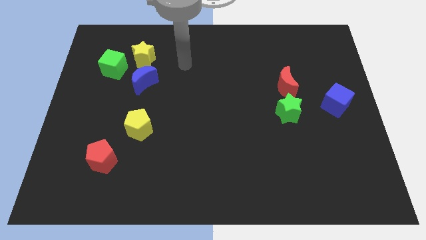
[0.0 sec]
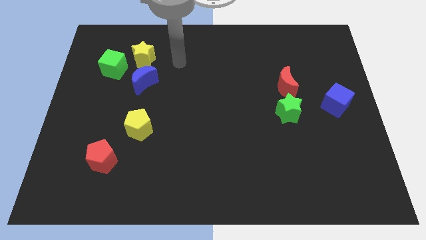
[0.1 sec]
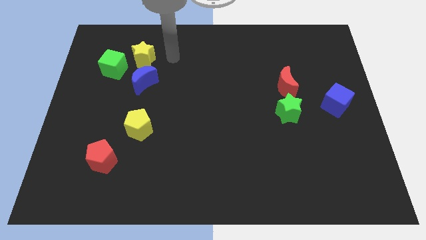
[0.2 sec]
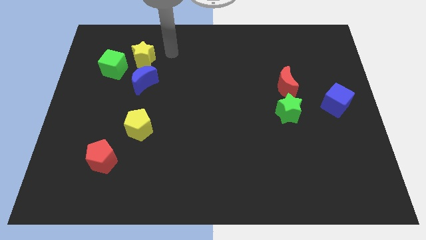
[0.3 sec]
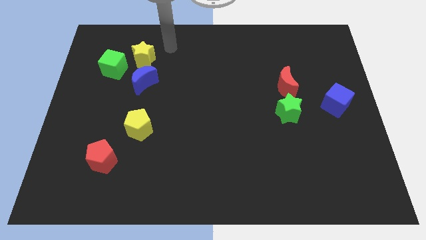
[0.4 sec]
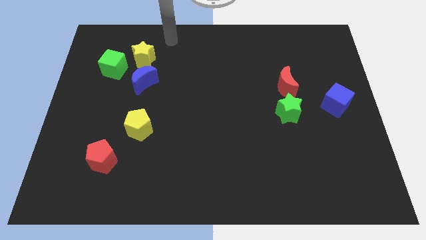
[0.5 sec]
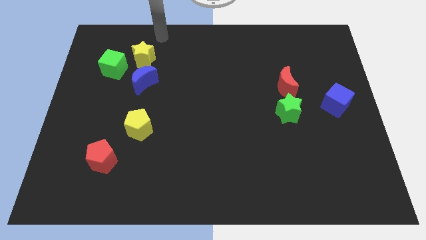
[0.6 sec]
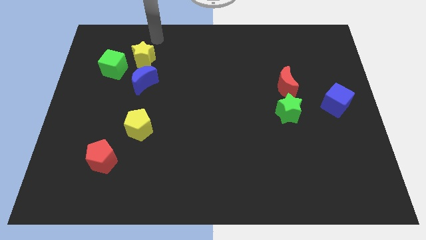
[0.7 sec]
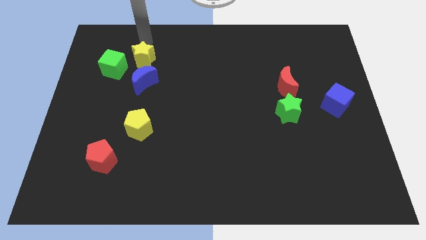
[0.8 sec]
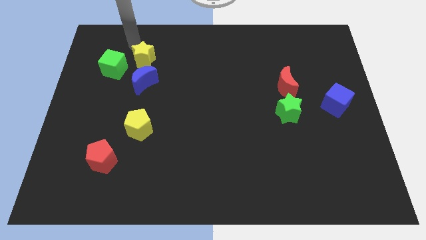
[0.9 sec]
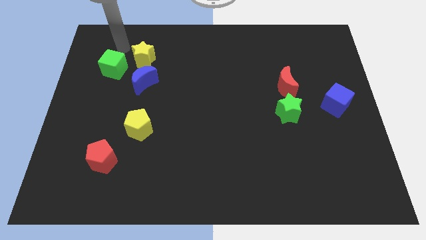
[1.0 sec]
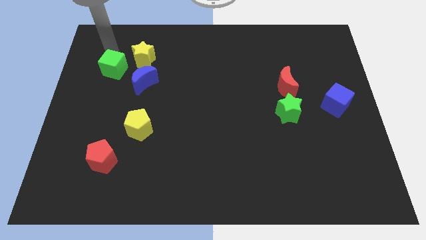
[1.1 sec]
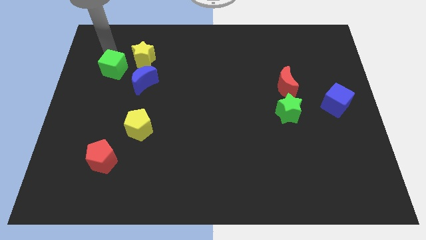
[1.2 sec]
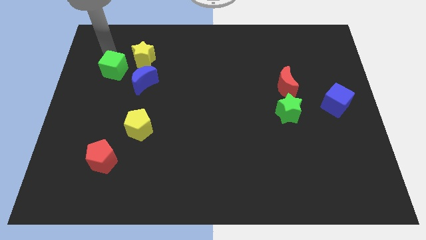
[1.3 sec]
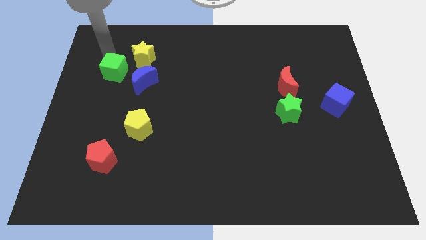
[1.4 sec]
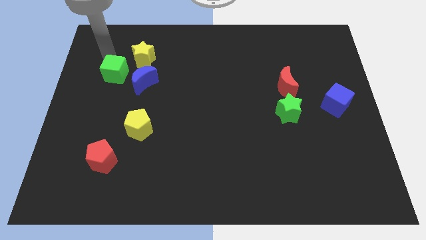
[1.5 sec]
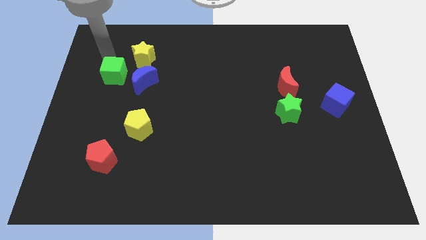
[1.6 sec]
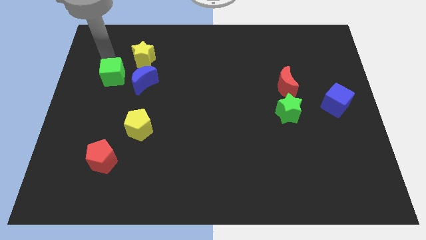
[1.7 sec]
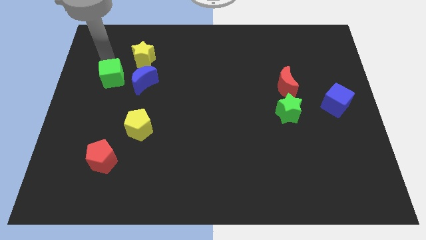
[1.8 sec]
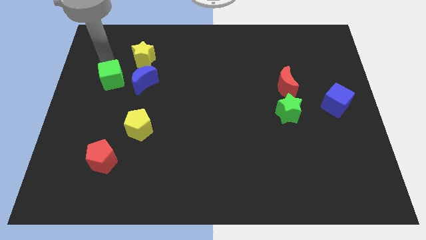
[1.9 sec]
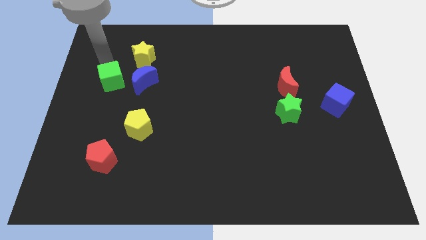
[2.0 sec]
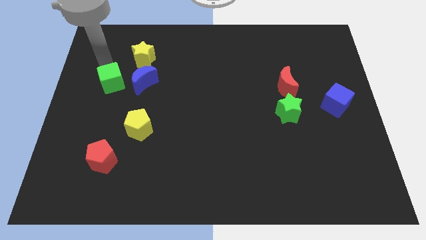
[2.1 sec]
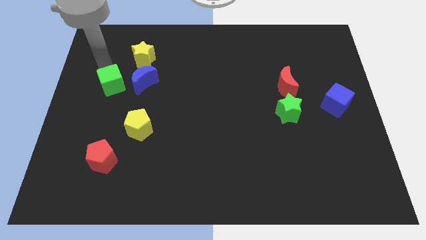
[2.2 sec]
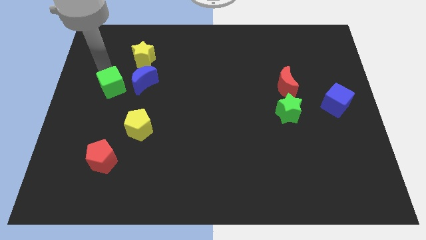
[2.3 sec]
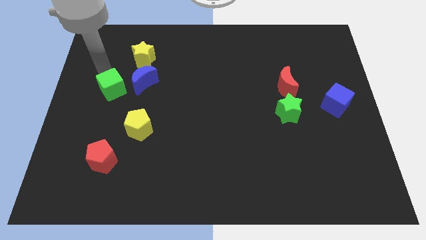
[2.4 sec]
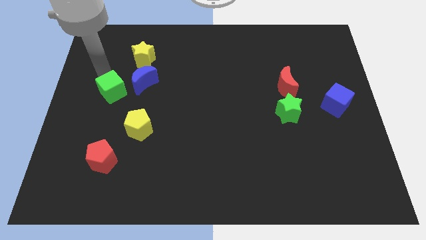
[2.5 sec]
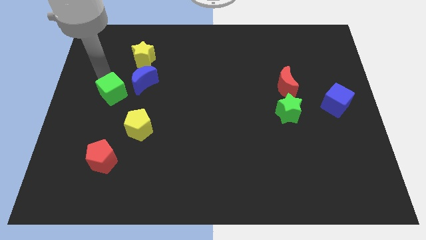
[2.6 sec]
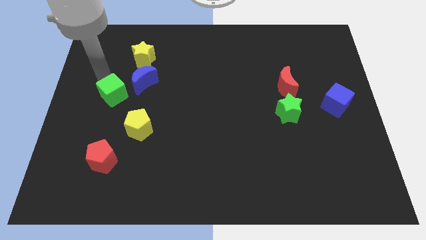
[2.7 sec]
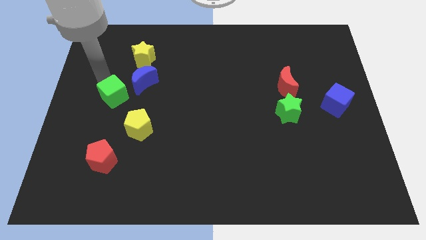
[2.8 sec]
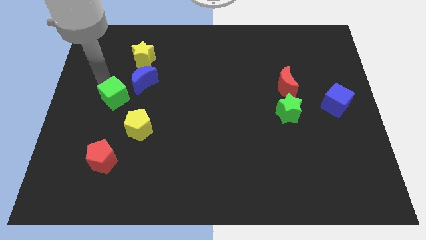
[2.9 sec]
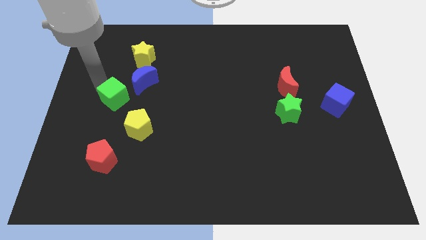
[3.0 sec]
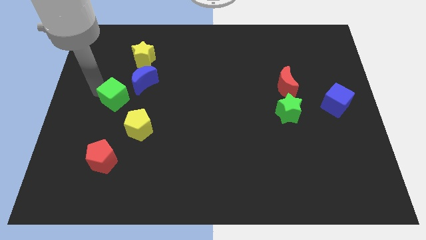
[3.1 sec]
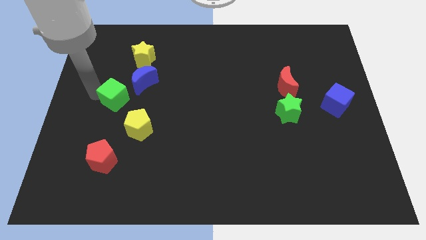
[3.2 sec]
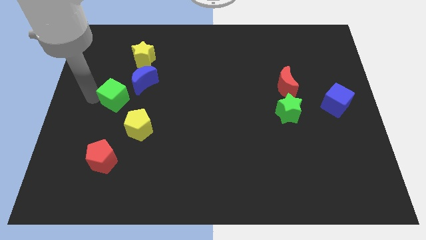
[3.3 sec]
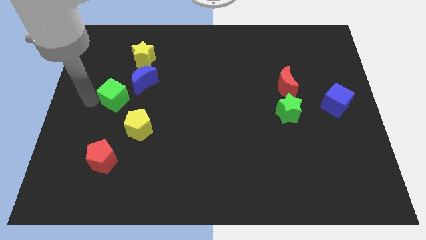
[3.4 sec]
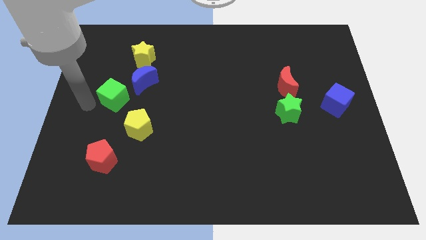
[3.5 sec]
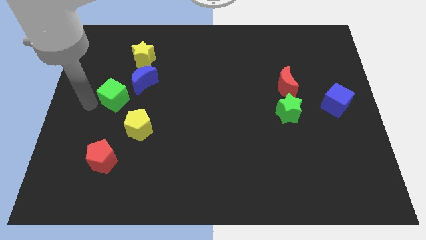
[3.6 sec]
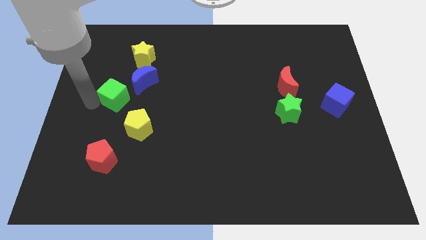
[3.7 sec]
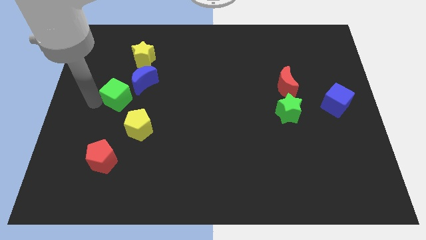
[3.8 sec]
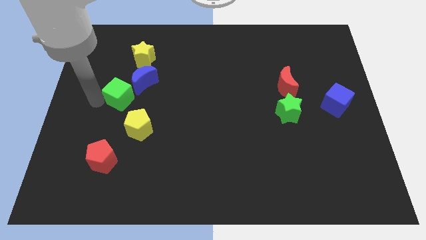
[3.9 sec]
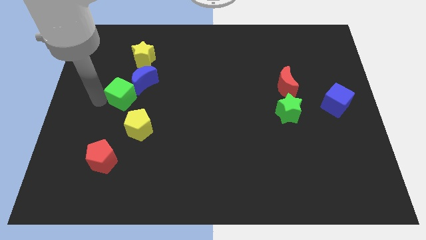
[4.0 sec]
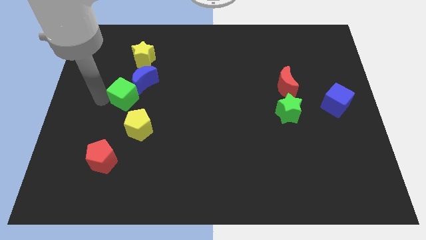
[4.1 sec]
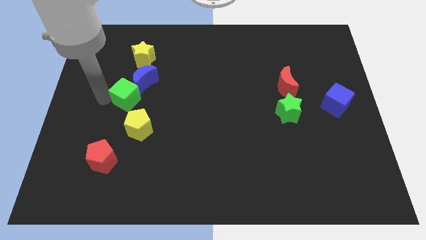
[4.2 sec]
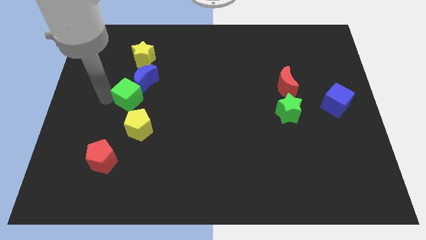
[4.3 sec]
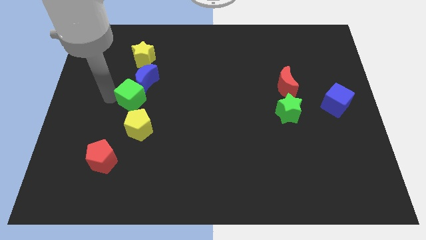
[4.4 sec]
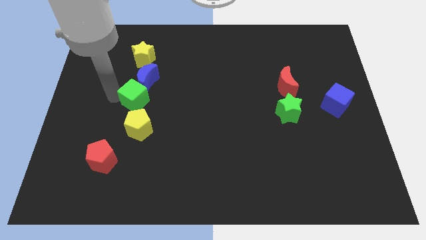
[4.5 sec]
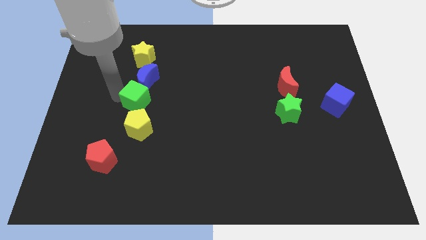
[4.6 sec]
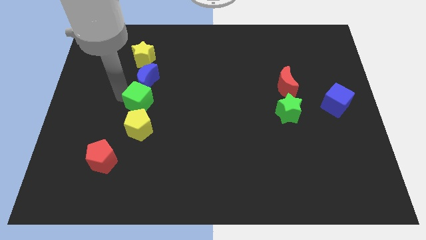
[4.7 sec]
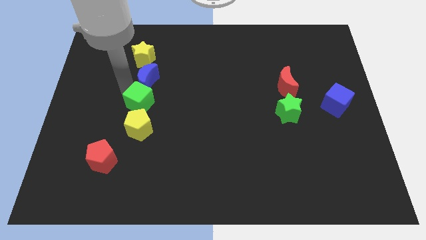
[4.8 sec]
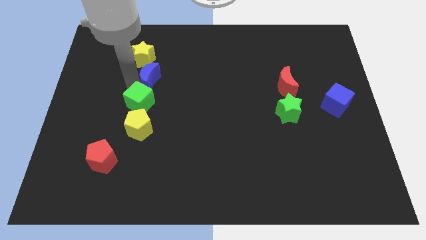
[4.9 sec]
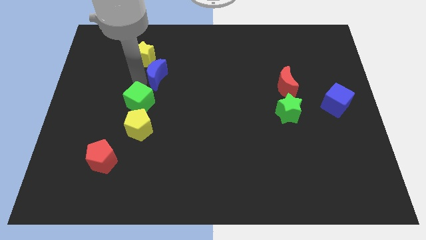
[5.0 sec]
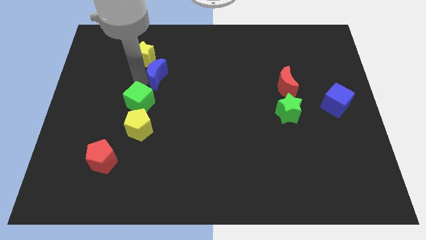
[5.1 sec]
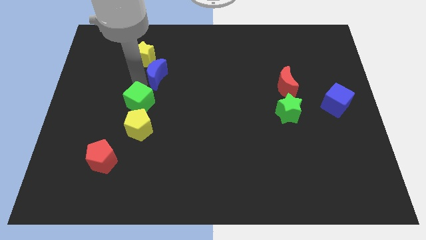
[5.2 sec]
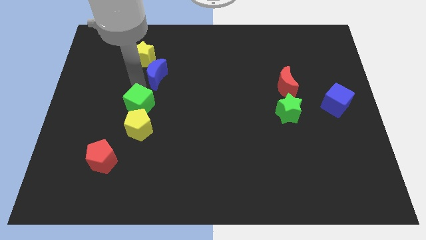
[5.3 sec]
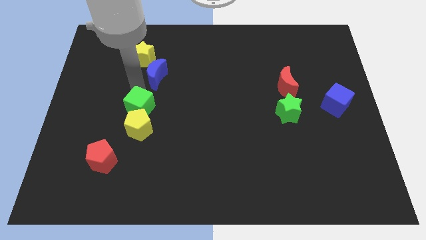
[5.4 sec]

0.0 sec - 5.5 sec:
put the green cube towards the yellow pentagon

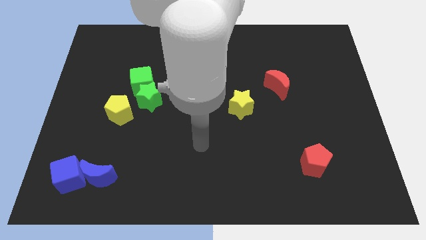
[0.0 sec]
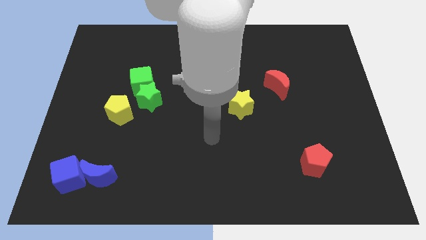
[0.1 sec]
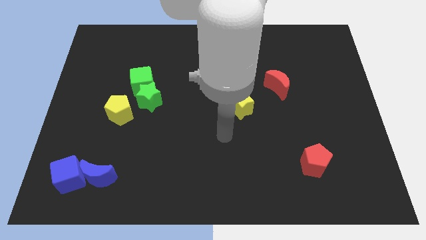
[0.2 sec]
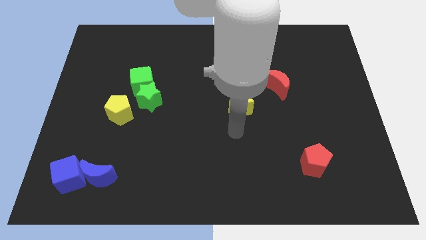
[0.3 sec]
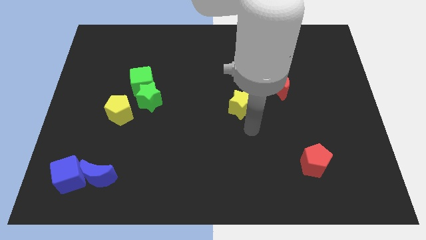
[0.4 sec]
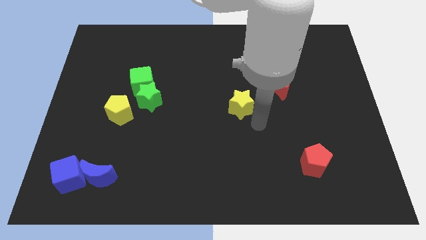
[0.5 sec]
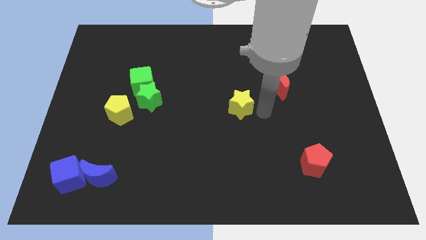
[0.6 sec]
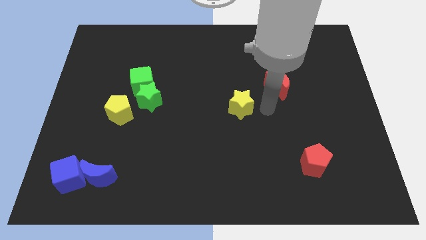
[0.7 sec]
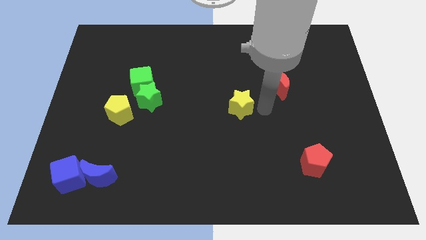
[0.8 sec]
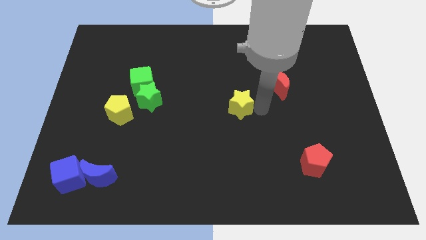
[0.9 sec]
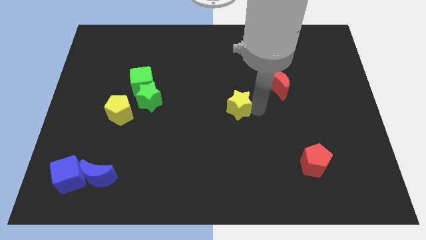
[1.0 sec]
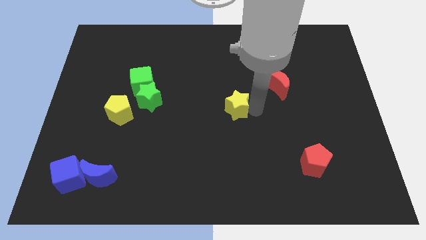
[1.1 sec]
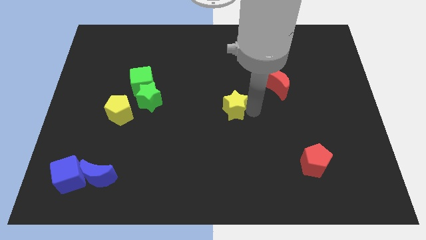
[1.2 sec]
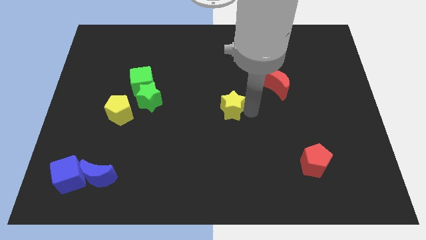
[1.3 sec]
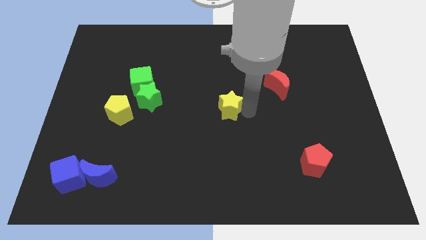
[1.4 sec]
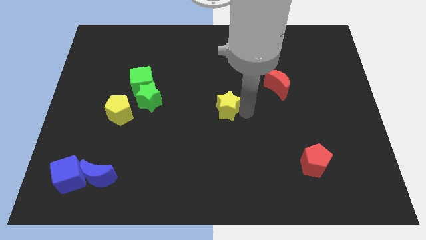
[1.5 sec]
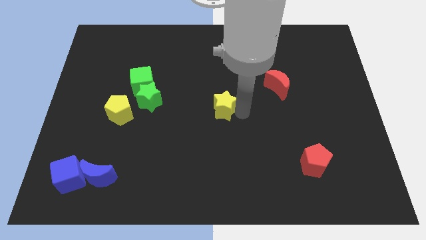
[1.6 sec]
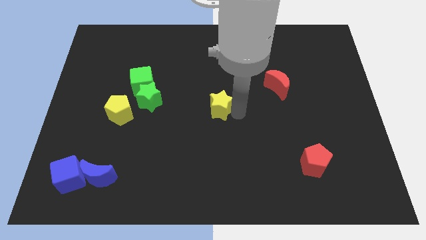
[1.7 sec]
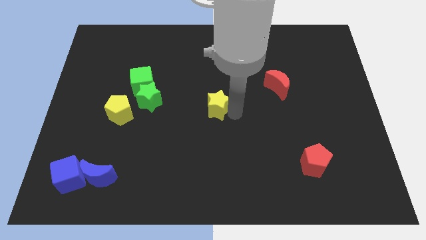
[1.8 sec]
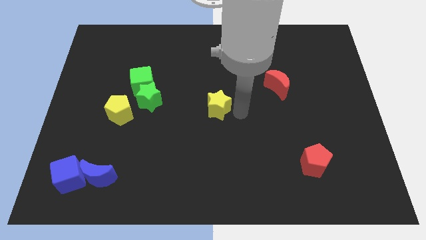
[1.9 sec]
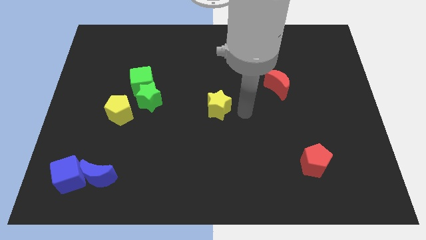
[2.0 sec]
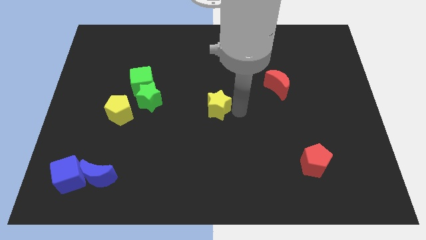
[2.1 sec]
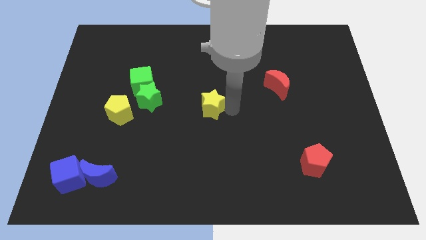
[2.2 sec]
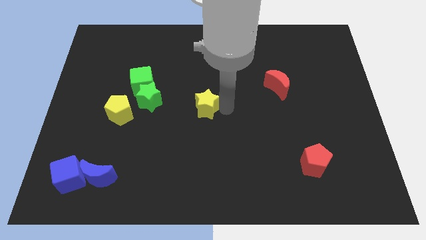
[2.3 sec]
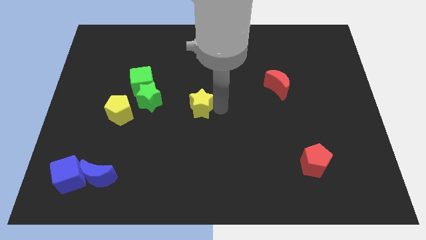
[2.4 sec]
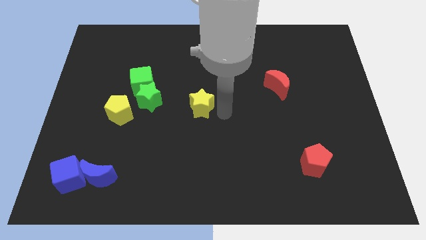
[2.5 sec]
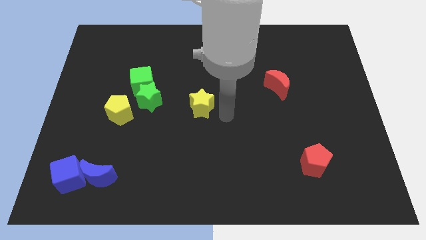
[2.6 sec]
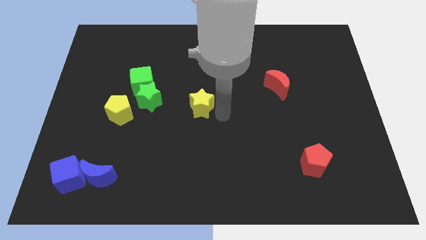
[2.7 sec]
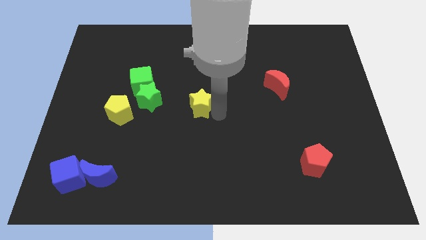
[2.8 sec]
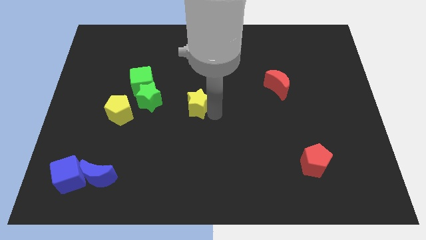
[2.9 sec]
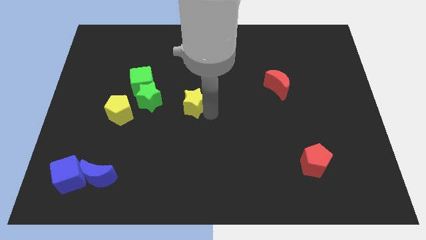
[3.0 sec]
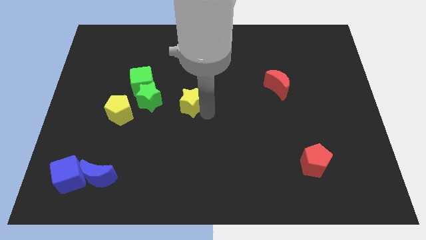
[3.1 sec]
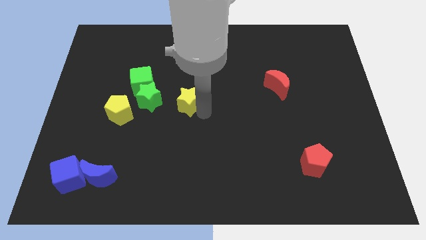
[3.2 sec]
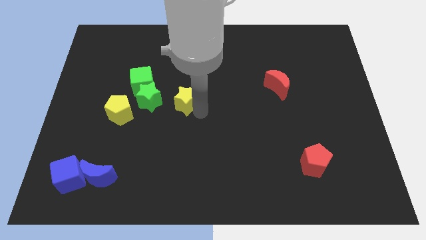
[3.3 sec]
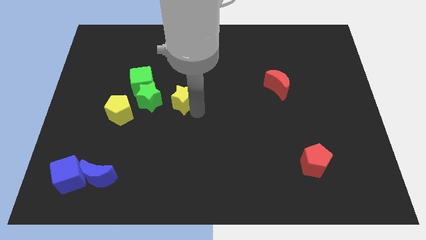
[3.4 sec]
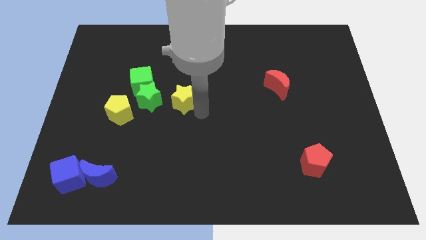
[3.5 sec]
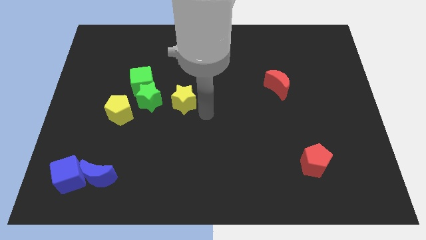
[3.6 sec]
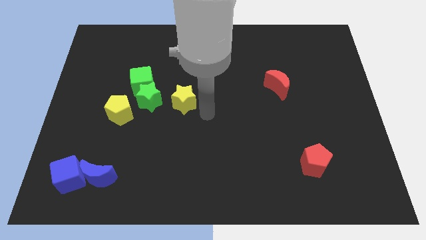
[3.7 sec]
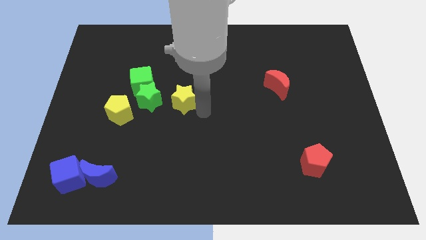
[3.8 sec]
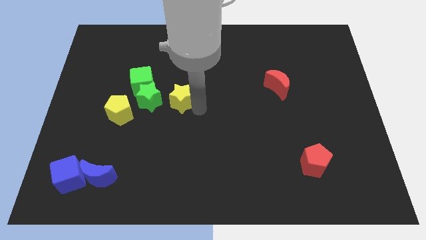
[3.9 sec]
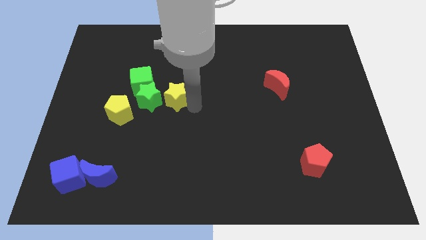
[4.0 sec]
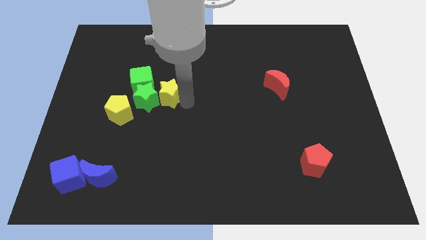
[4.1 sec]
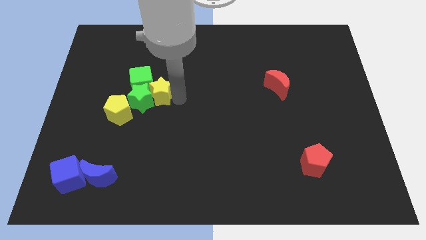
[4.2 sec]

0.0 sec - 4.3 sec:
move the yellow star close to the green cube
